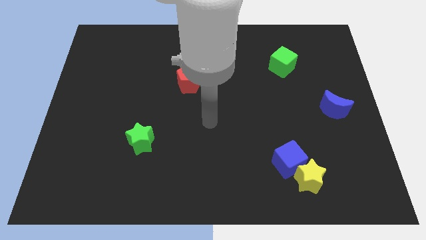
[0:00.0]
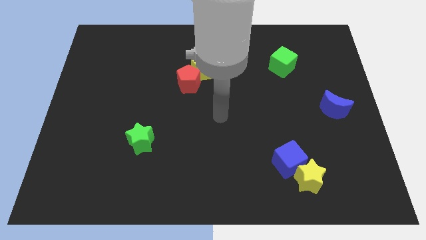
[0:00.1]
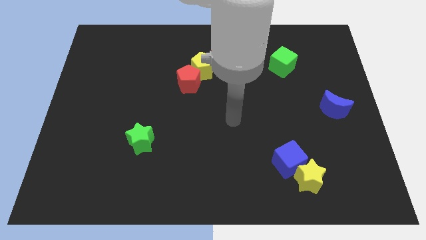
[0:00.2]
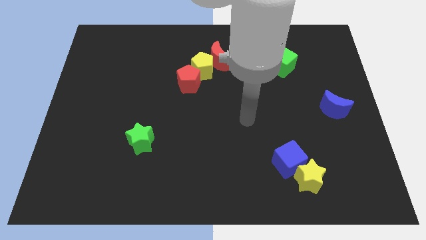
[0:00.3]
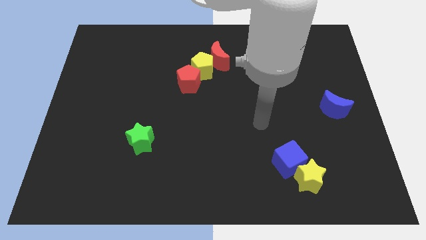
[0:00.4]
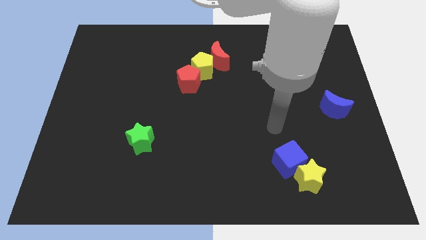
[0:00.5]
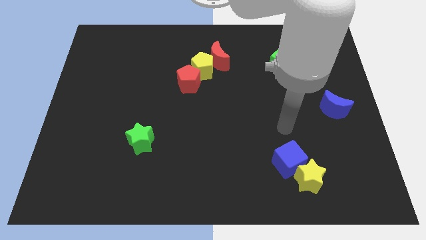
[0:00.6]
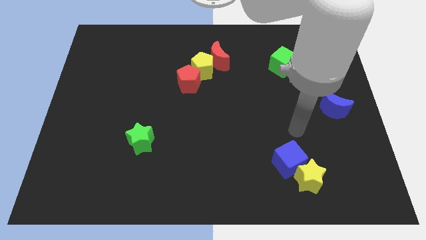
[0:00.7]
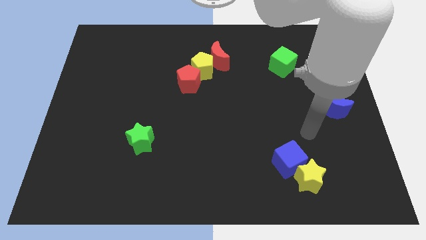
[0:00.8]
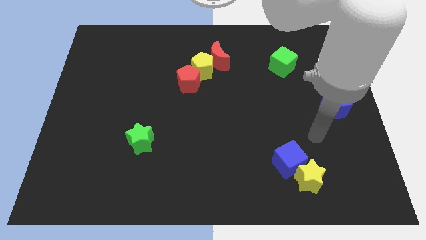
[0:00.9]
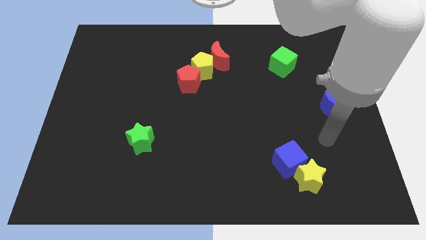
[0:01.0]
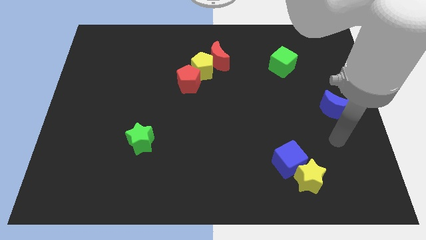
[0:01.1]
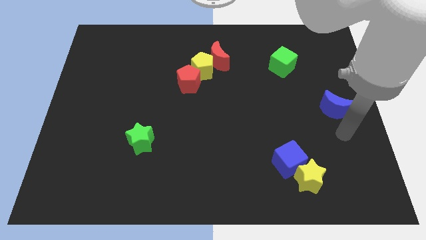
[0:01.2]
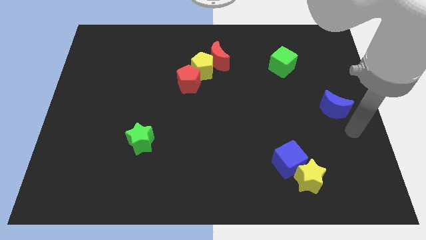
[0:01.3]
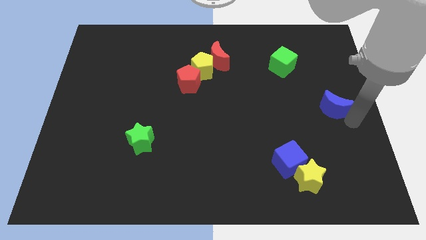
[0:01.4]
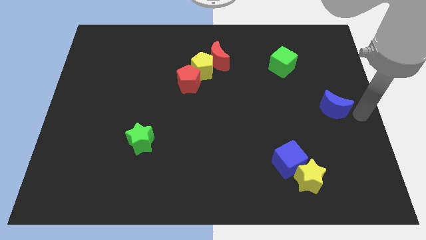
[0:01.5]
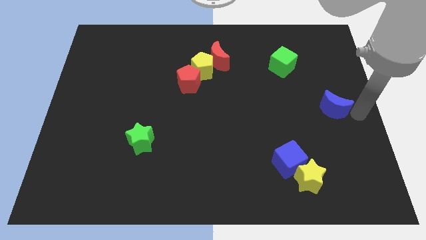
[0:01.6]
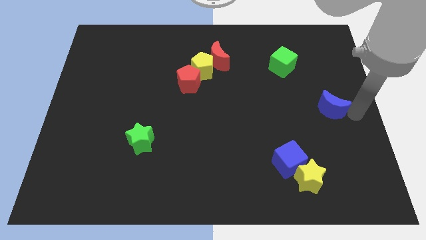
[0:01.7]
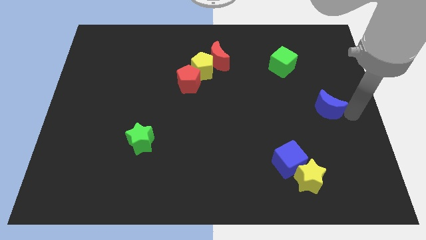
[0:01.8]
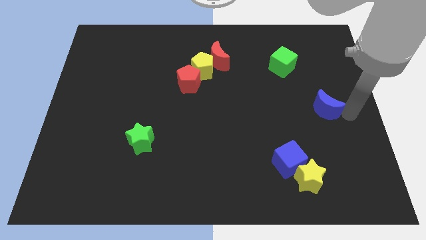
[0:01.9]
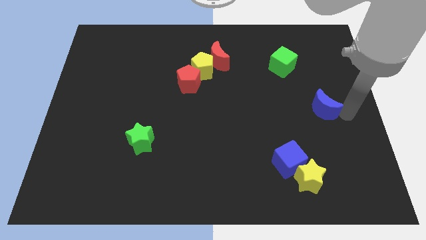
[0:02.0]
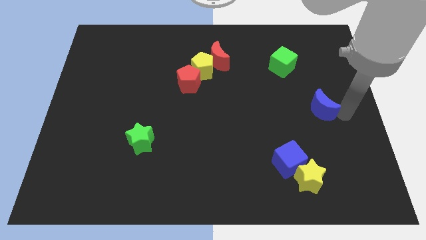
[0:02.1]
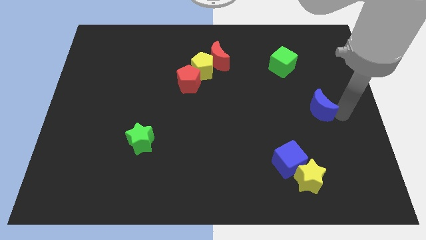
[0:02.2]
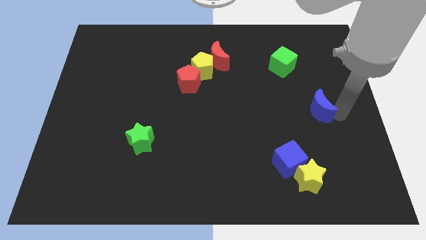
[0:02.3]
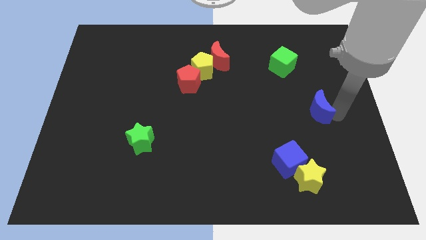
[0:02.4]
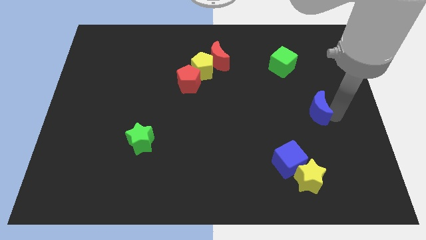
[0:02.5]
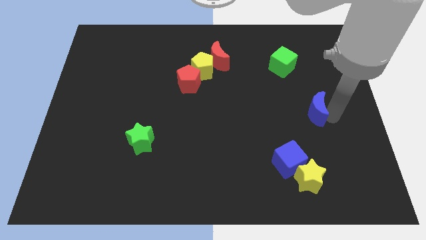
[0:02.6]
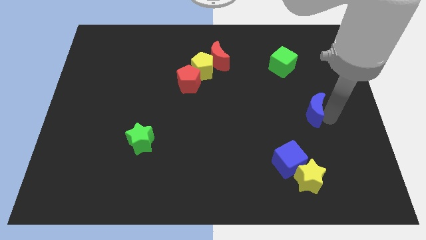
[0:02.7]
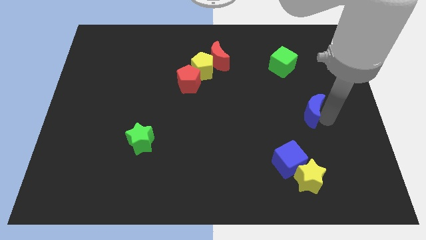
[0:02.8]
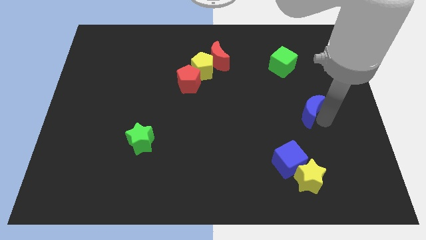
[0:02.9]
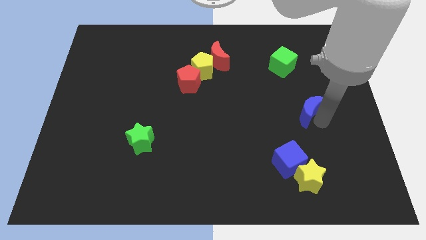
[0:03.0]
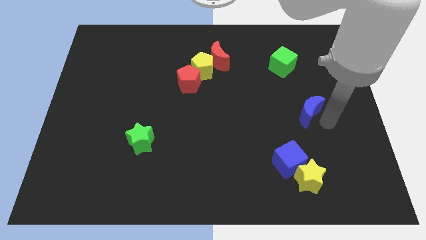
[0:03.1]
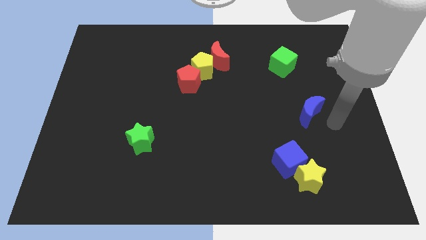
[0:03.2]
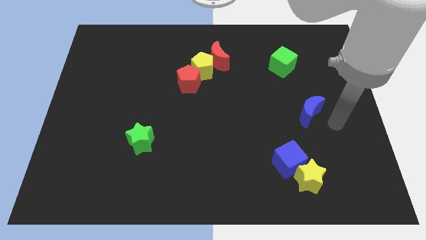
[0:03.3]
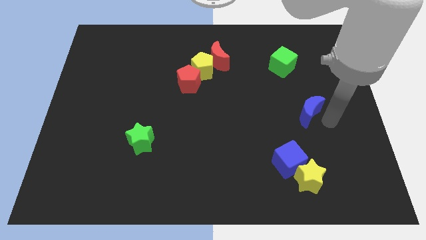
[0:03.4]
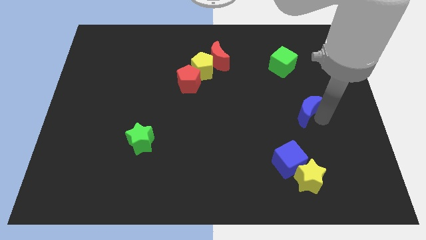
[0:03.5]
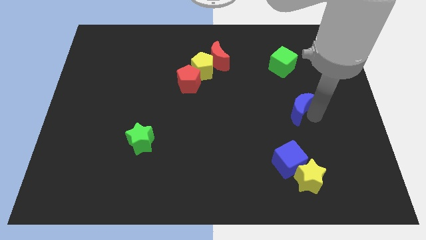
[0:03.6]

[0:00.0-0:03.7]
push the blue moon a bit to the left

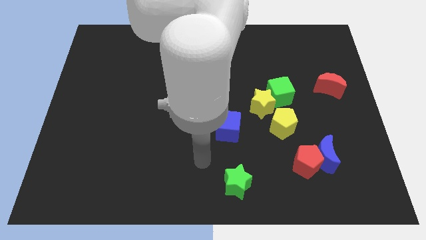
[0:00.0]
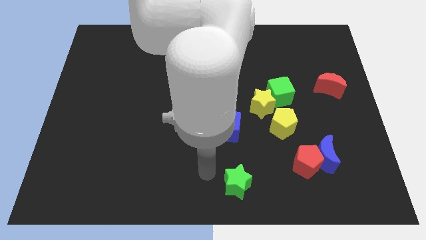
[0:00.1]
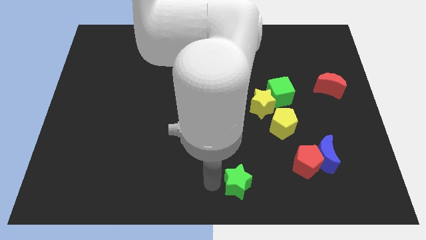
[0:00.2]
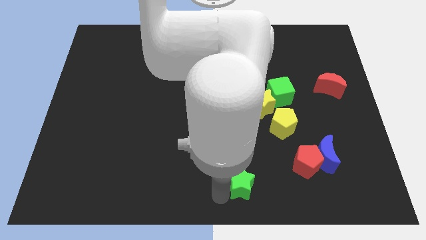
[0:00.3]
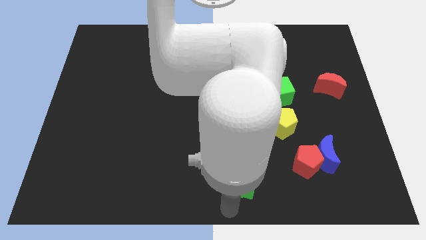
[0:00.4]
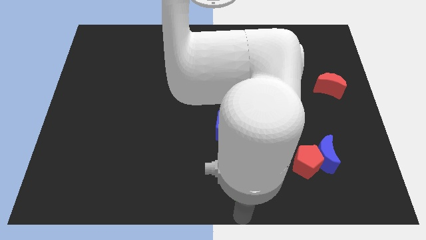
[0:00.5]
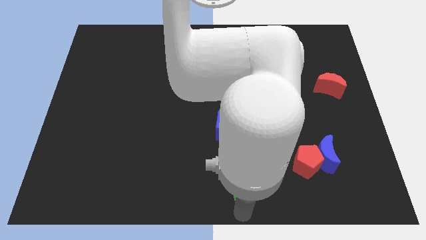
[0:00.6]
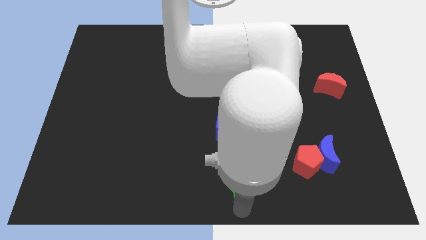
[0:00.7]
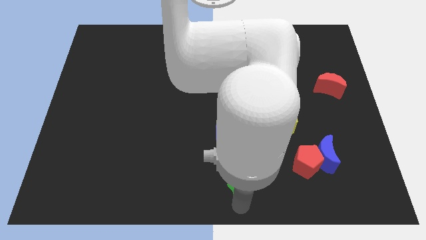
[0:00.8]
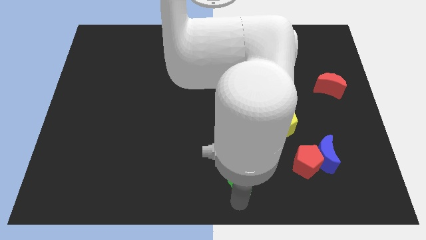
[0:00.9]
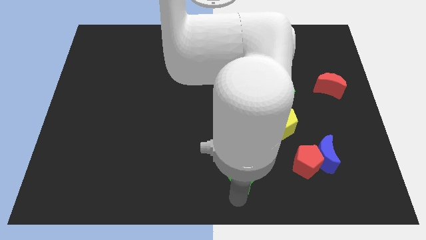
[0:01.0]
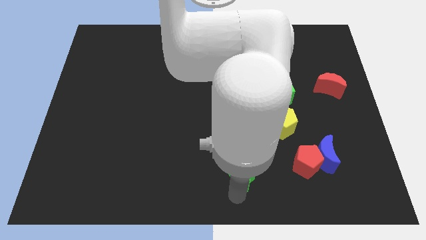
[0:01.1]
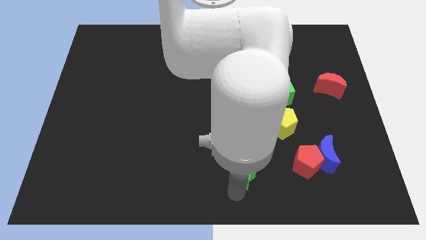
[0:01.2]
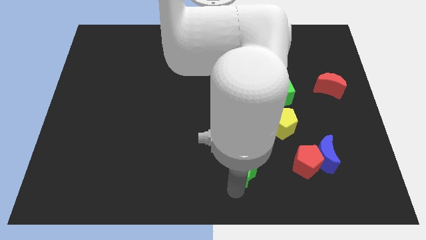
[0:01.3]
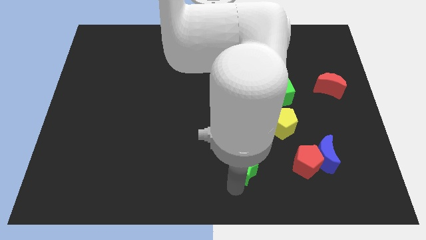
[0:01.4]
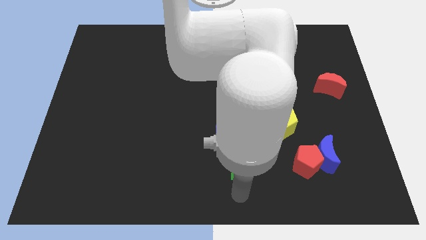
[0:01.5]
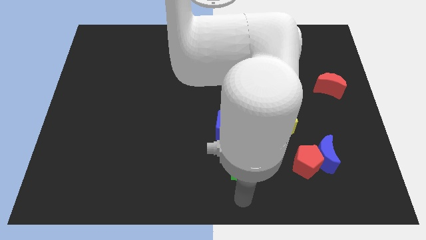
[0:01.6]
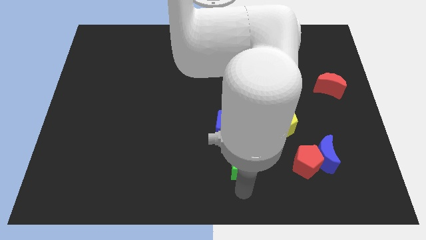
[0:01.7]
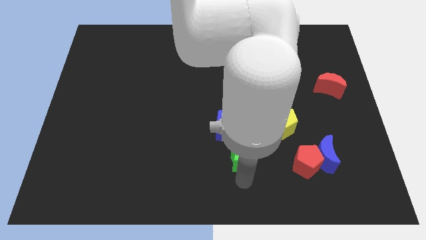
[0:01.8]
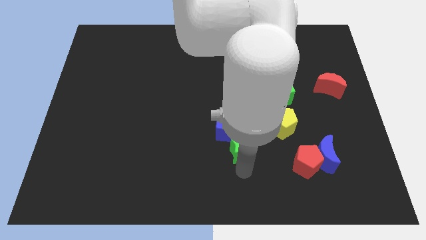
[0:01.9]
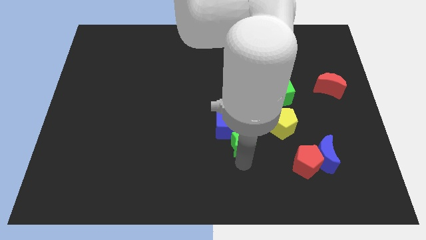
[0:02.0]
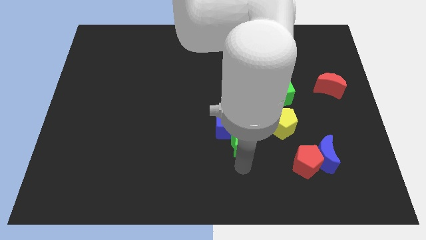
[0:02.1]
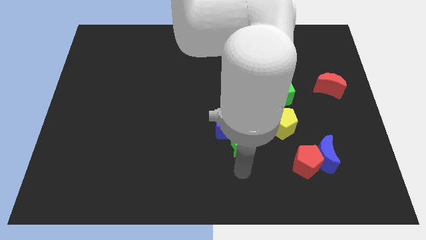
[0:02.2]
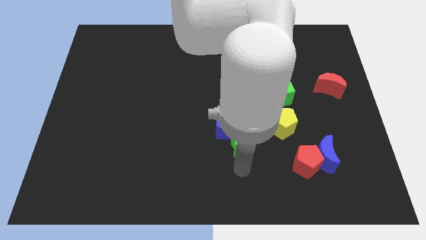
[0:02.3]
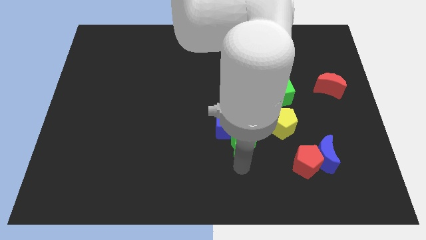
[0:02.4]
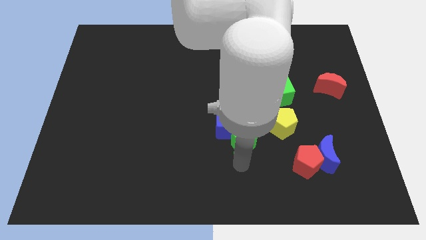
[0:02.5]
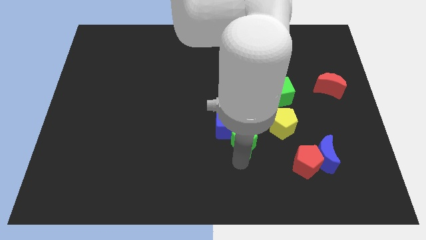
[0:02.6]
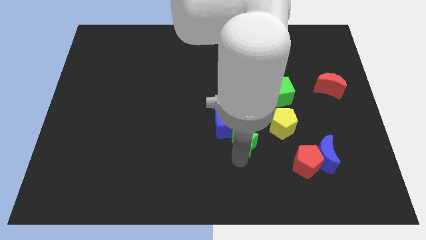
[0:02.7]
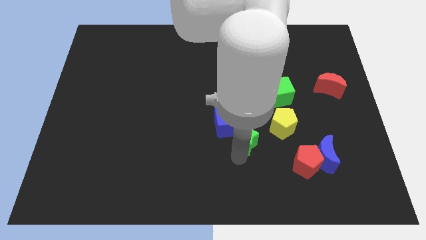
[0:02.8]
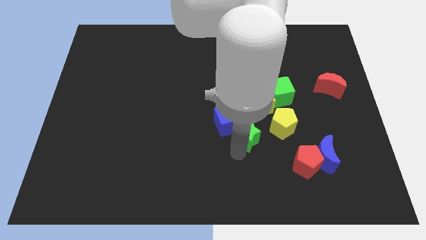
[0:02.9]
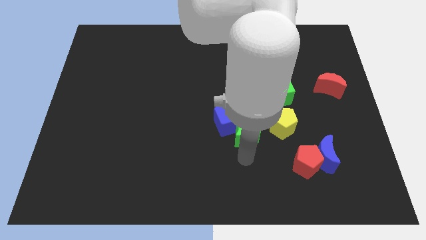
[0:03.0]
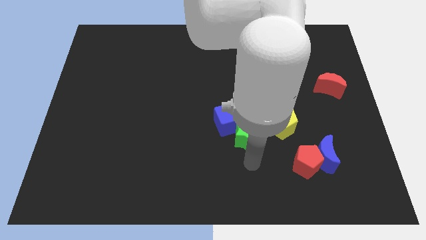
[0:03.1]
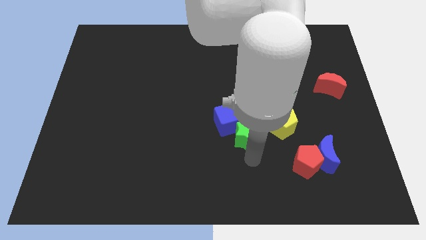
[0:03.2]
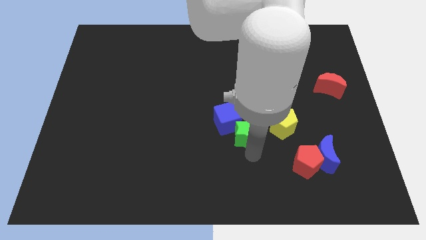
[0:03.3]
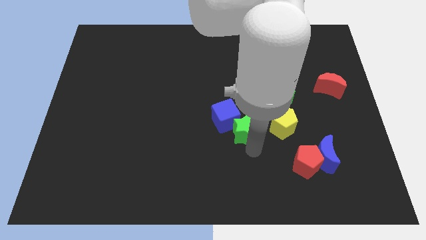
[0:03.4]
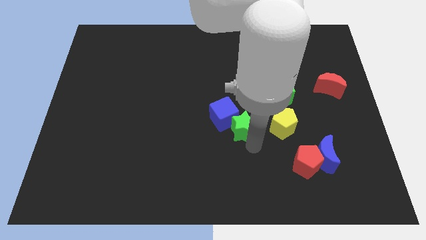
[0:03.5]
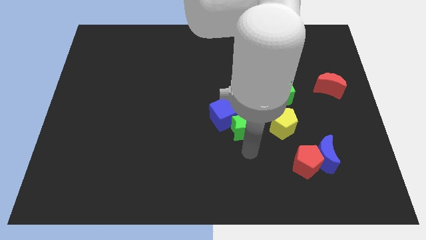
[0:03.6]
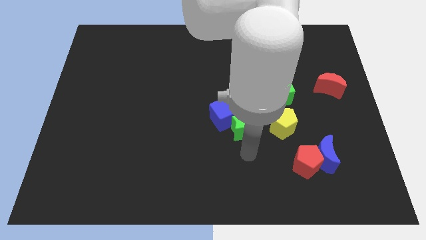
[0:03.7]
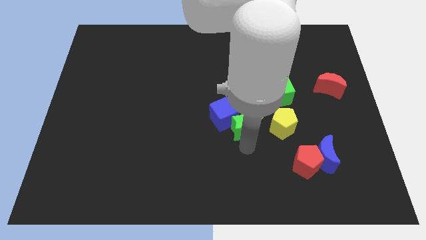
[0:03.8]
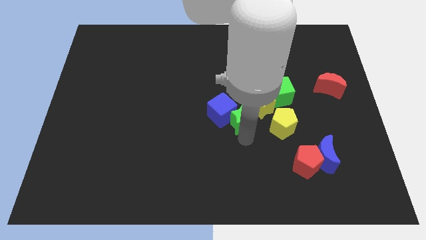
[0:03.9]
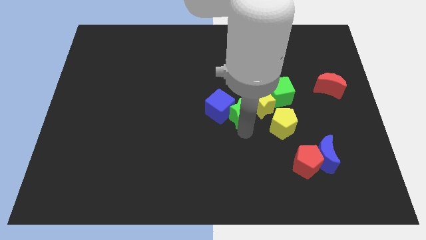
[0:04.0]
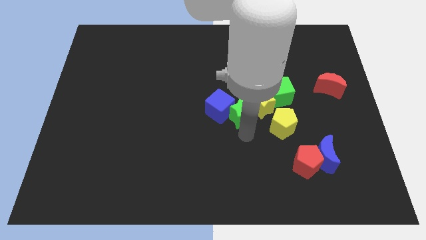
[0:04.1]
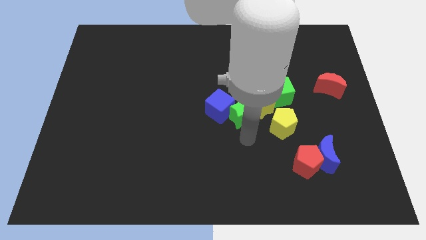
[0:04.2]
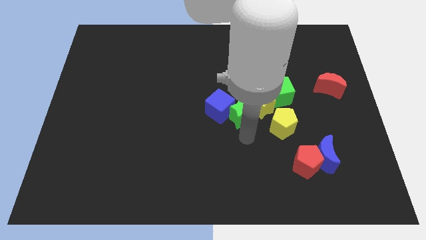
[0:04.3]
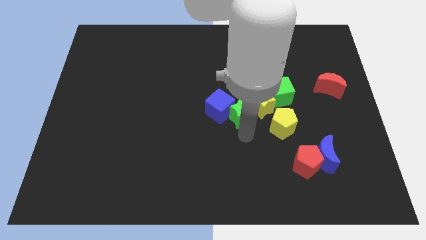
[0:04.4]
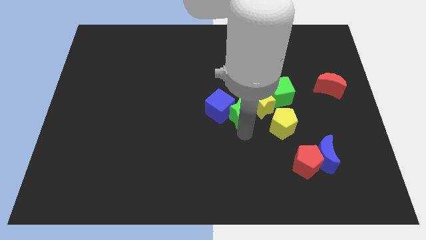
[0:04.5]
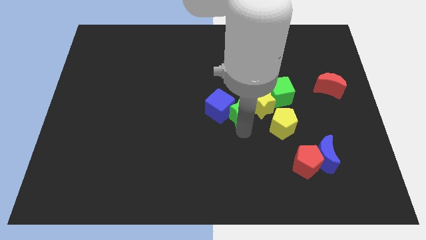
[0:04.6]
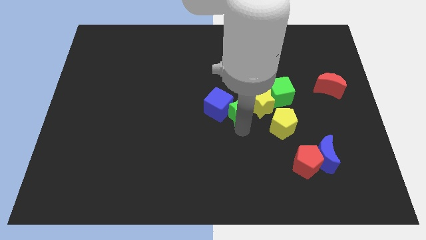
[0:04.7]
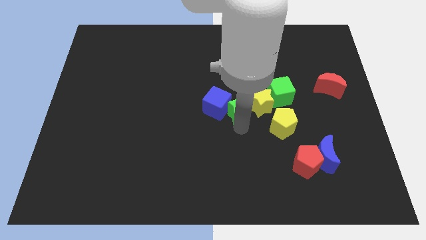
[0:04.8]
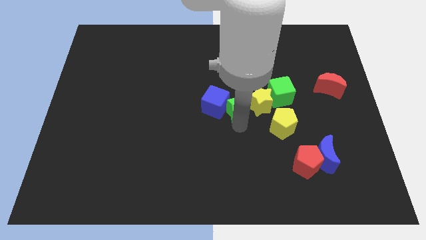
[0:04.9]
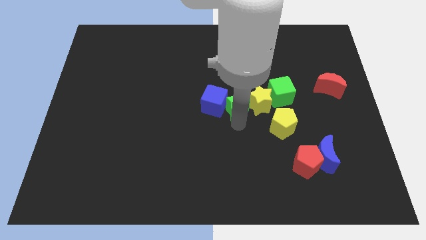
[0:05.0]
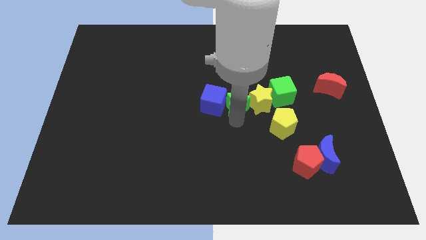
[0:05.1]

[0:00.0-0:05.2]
slide the green star upwards
